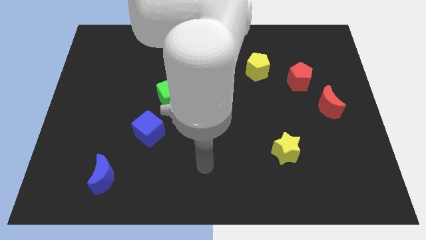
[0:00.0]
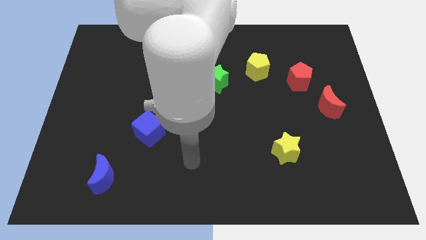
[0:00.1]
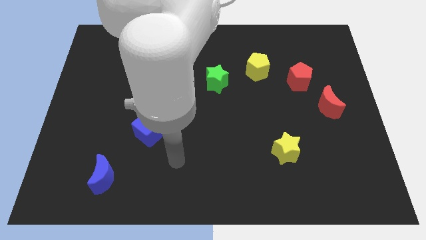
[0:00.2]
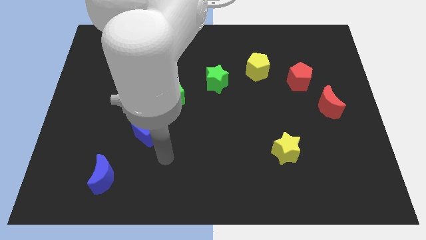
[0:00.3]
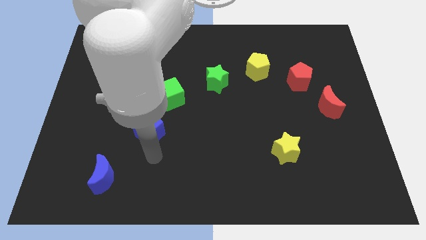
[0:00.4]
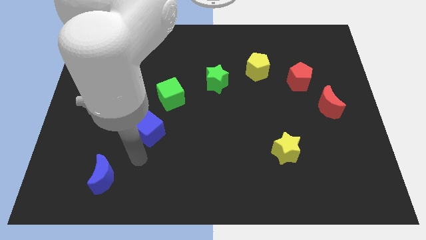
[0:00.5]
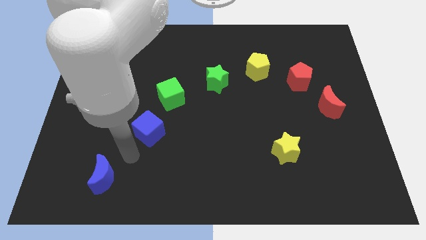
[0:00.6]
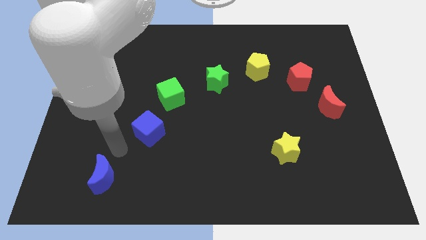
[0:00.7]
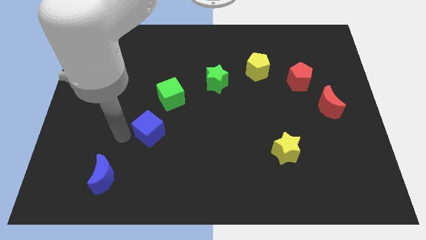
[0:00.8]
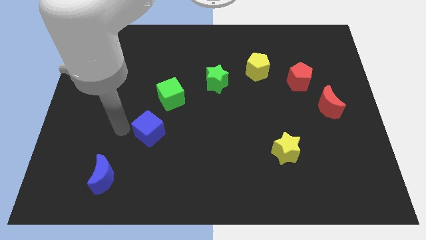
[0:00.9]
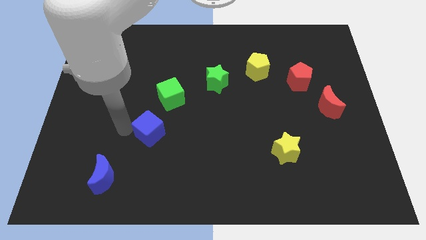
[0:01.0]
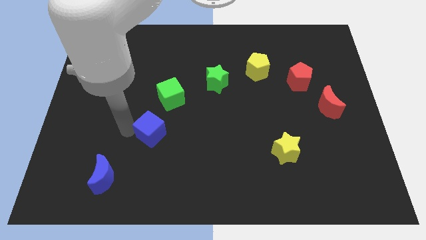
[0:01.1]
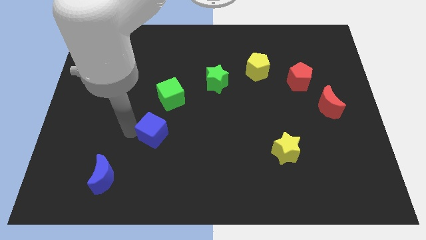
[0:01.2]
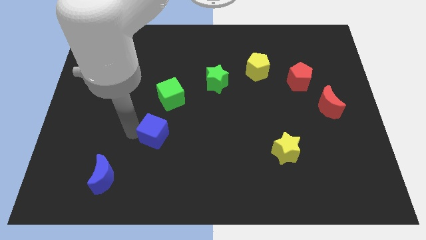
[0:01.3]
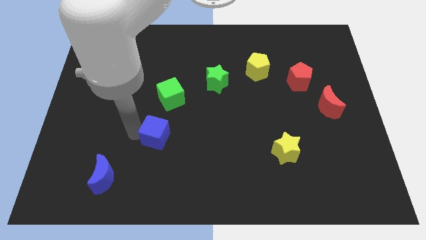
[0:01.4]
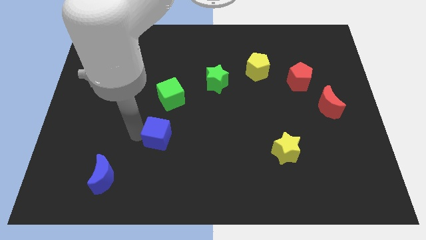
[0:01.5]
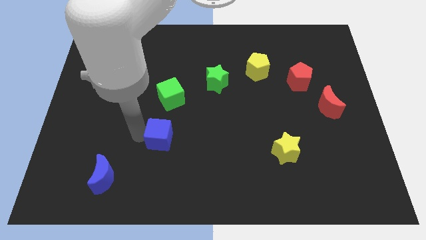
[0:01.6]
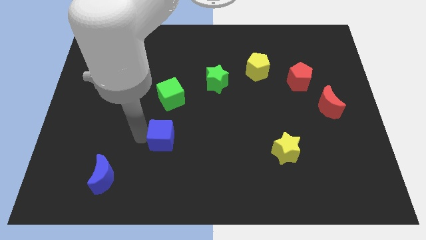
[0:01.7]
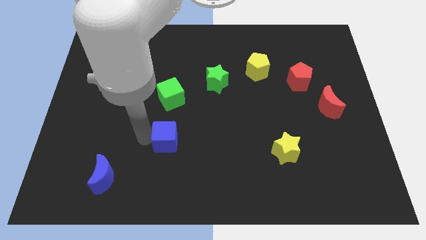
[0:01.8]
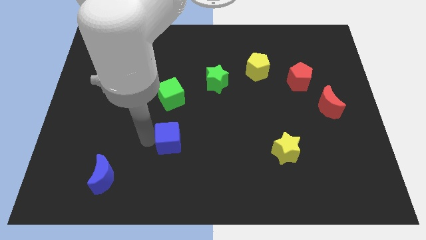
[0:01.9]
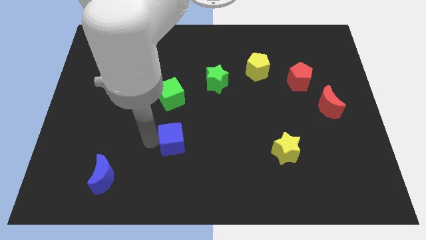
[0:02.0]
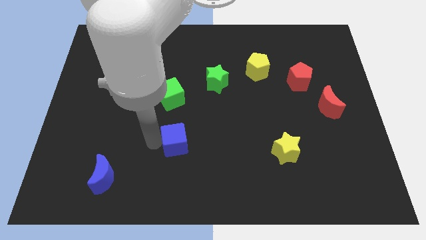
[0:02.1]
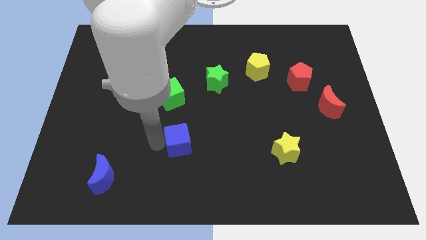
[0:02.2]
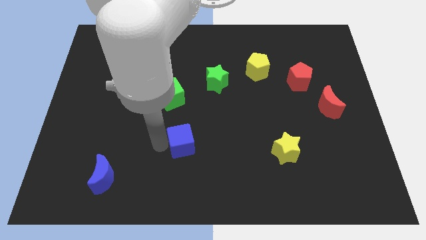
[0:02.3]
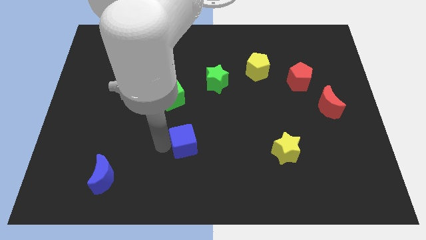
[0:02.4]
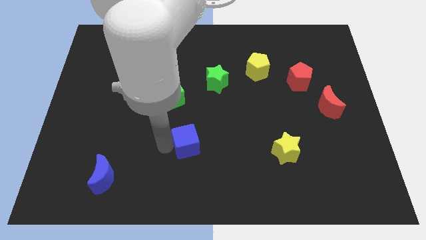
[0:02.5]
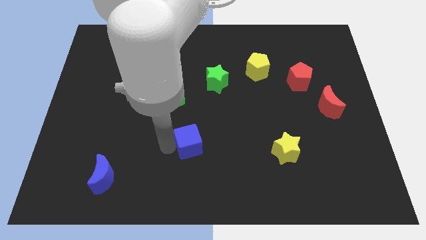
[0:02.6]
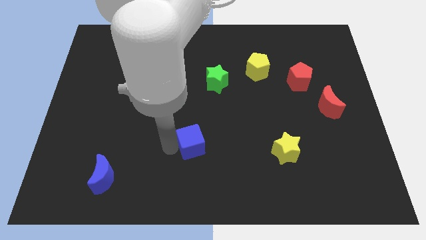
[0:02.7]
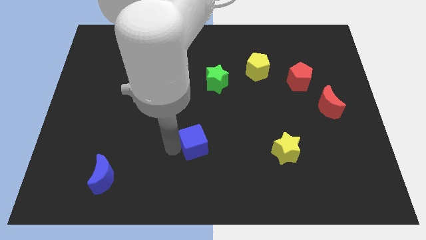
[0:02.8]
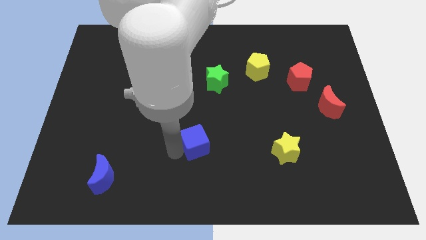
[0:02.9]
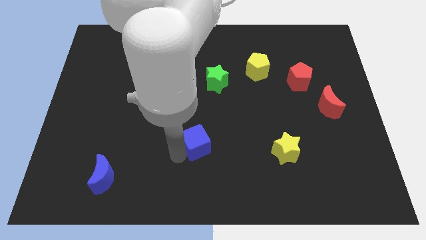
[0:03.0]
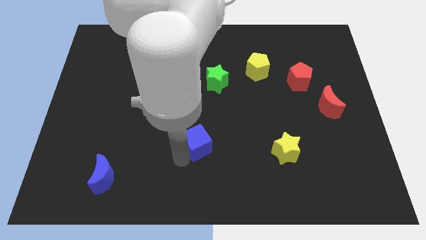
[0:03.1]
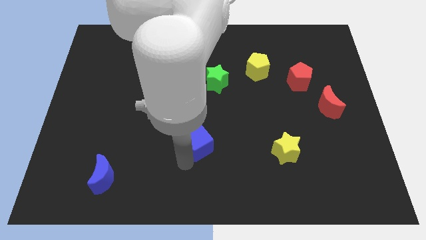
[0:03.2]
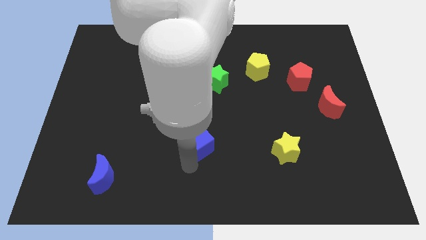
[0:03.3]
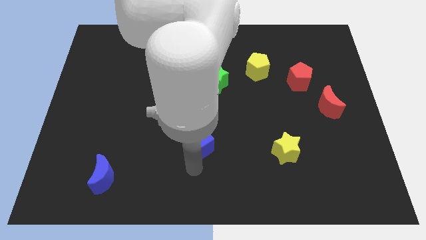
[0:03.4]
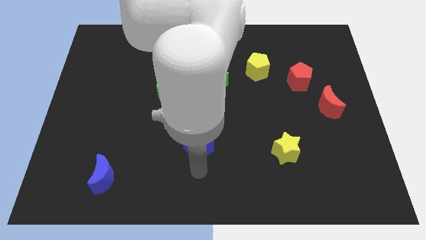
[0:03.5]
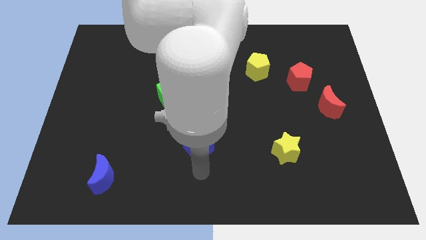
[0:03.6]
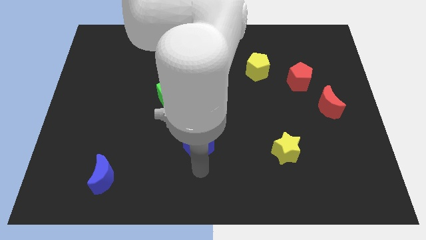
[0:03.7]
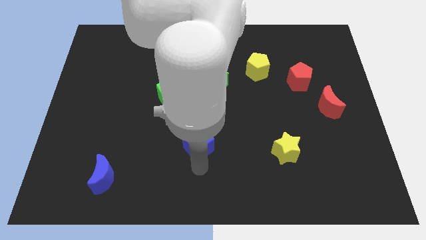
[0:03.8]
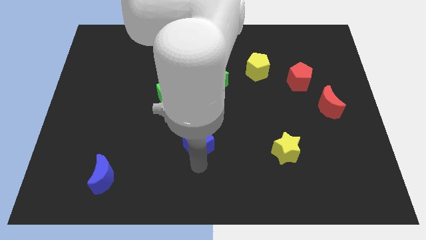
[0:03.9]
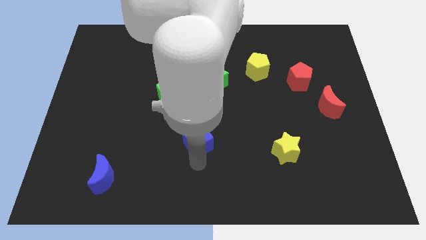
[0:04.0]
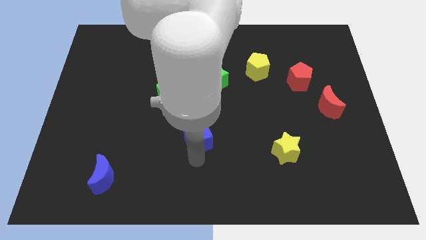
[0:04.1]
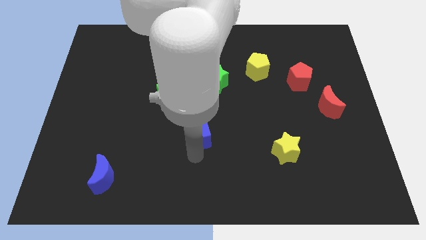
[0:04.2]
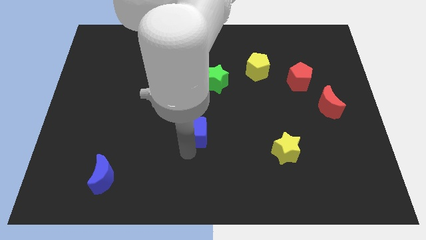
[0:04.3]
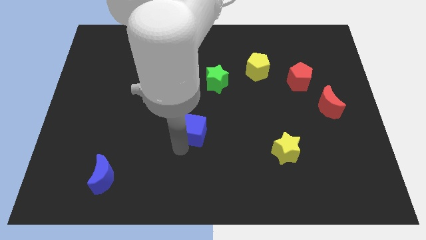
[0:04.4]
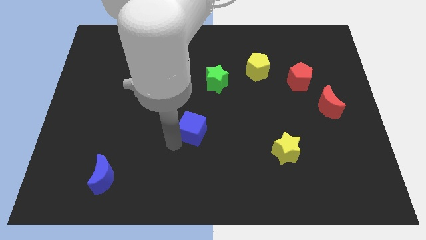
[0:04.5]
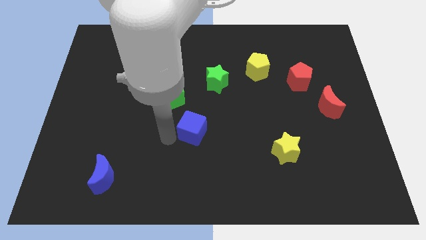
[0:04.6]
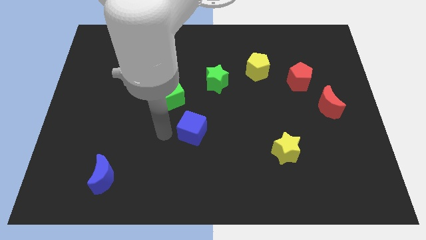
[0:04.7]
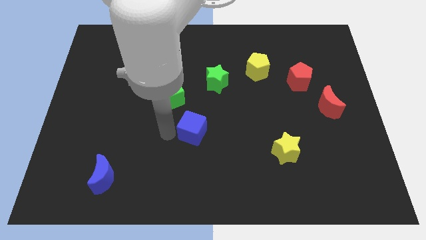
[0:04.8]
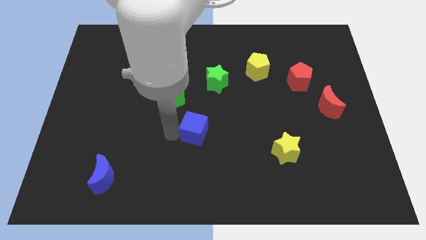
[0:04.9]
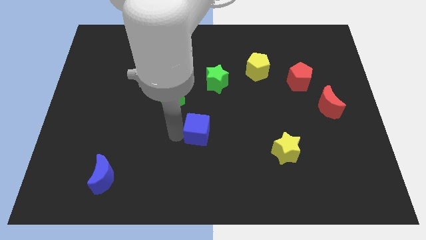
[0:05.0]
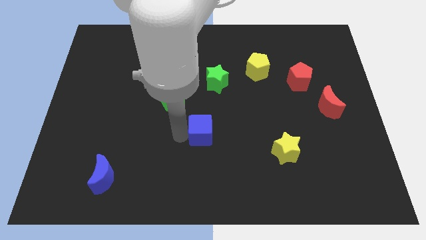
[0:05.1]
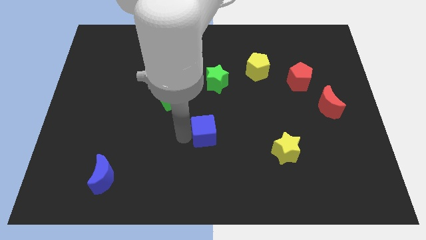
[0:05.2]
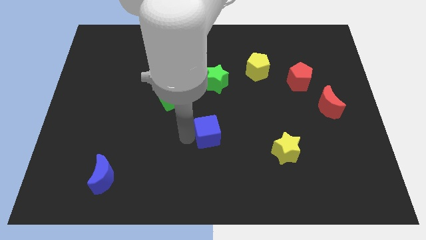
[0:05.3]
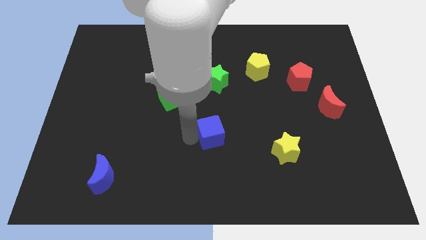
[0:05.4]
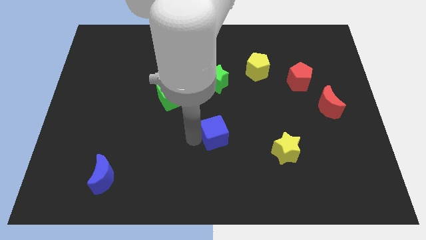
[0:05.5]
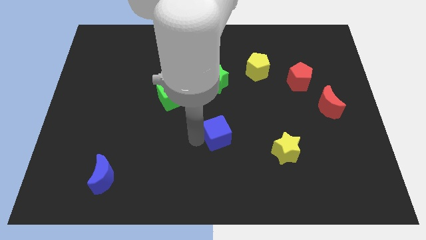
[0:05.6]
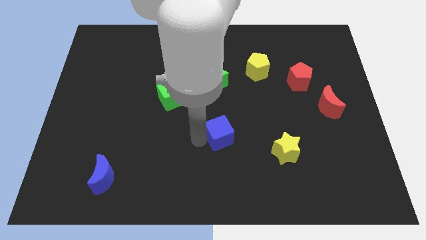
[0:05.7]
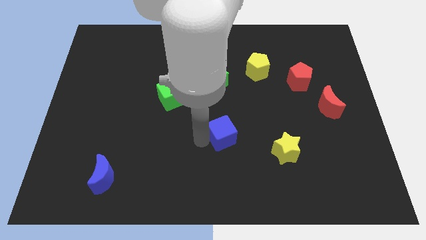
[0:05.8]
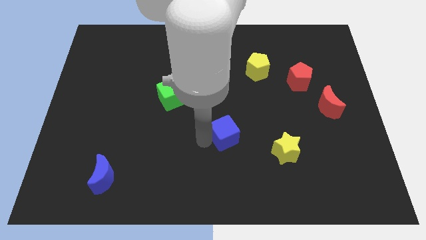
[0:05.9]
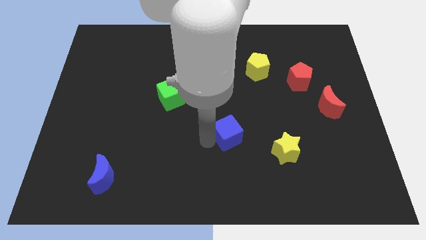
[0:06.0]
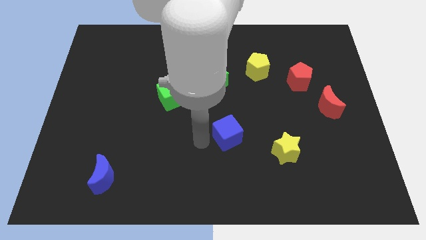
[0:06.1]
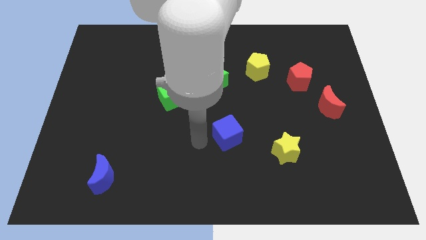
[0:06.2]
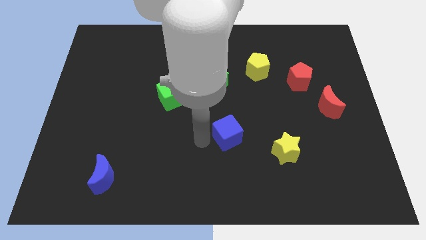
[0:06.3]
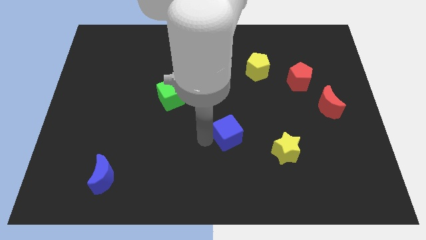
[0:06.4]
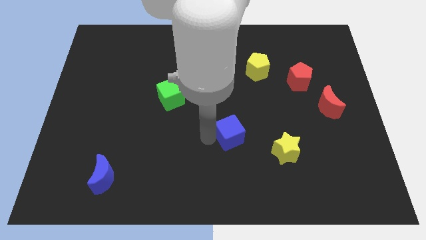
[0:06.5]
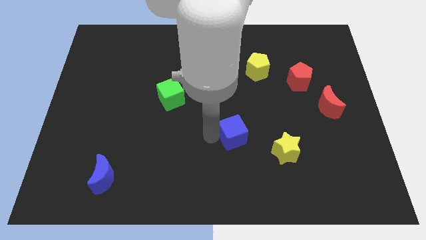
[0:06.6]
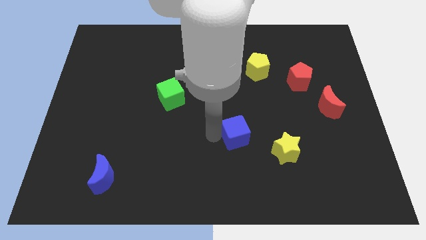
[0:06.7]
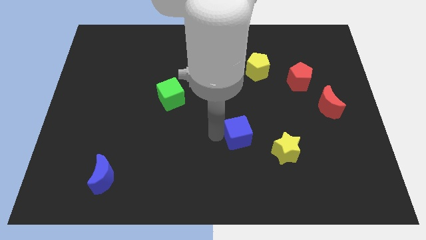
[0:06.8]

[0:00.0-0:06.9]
move the blue cube to the right

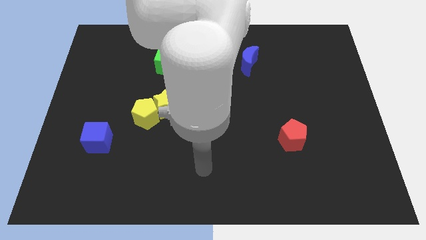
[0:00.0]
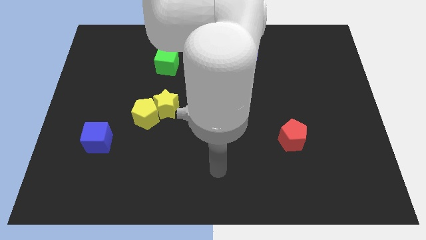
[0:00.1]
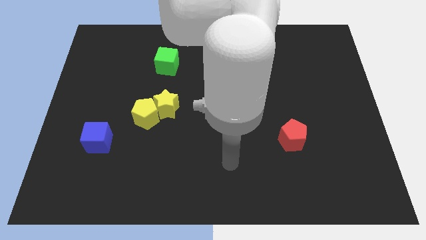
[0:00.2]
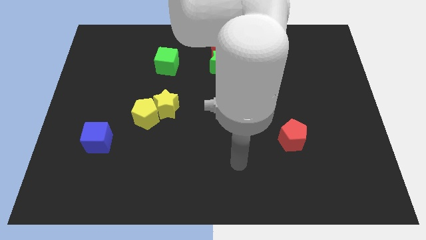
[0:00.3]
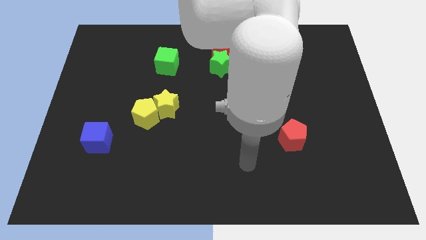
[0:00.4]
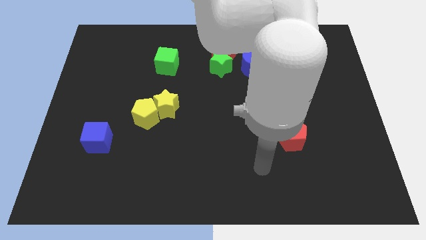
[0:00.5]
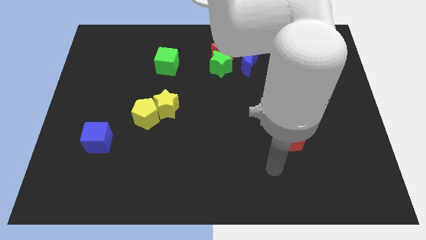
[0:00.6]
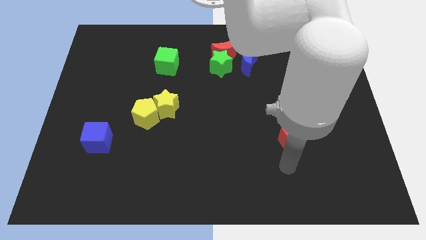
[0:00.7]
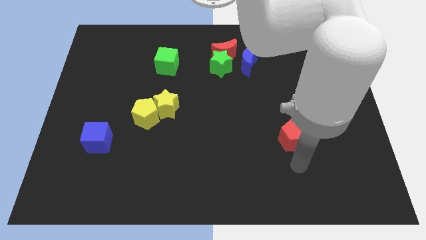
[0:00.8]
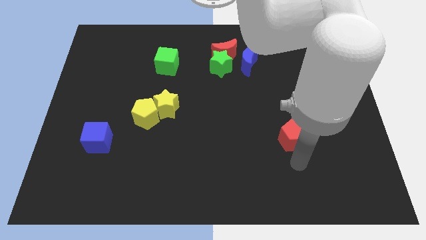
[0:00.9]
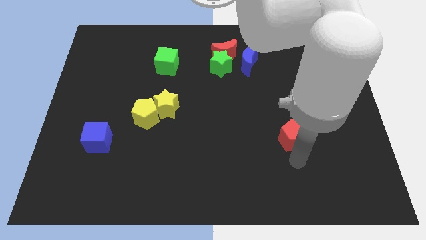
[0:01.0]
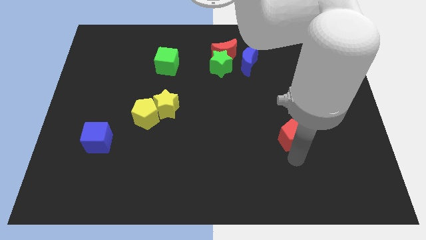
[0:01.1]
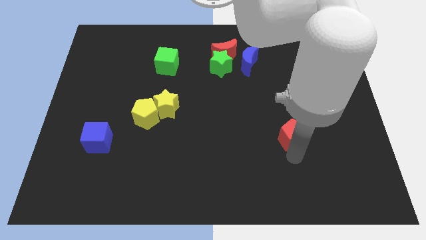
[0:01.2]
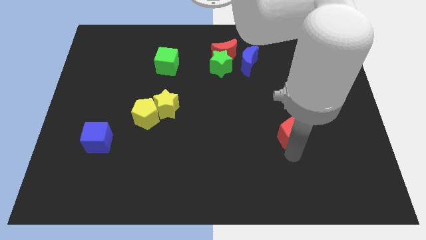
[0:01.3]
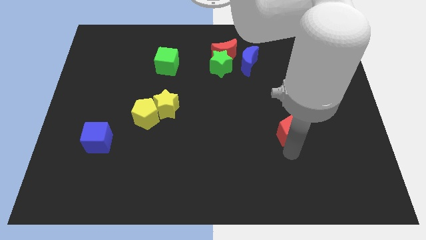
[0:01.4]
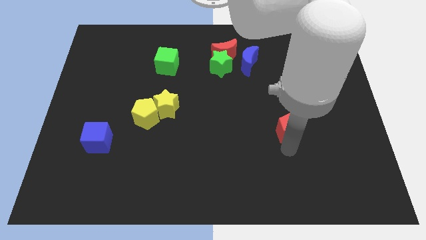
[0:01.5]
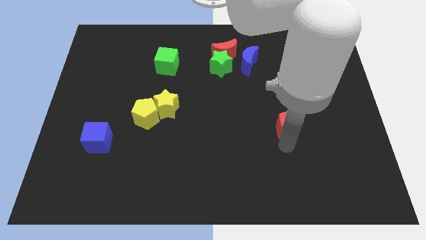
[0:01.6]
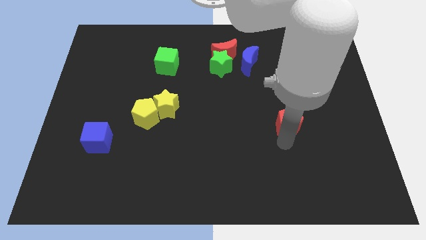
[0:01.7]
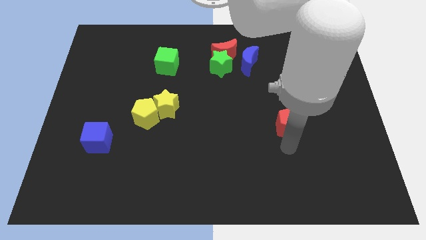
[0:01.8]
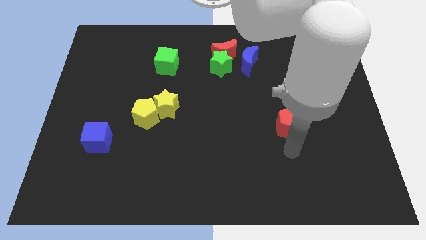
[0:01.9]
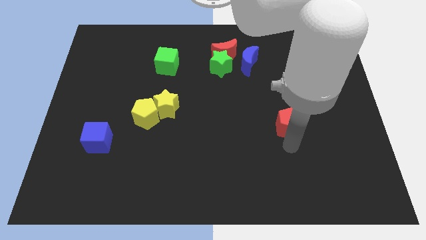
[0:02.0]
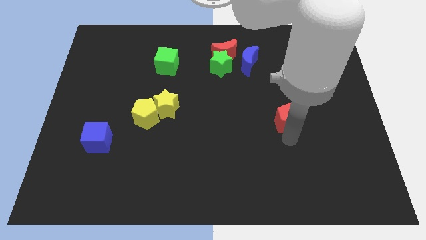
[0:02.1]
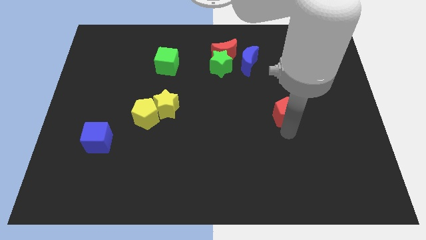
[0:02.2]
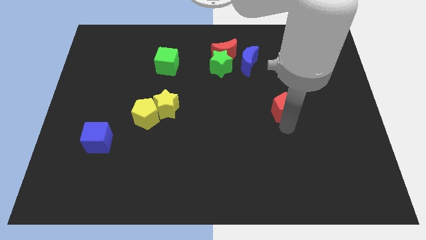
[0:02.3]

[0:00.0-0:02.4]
slightly move the red pentagon upwards
